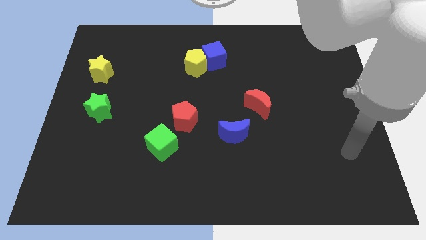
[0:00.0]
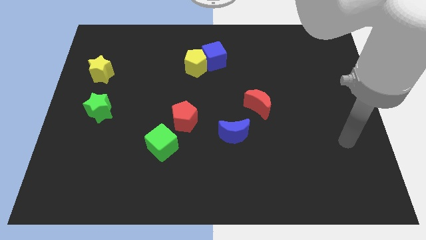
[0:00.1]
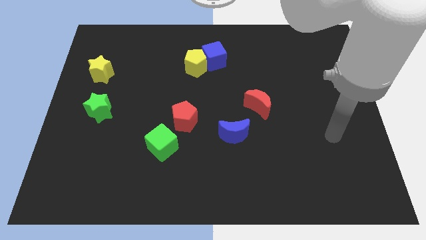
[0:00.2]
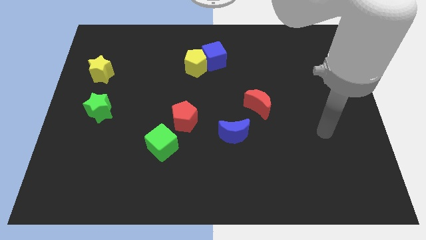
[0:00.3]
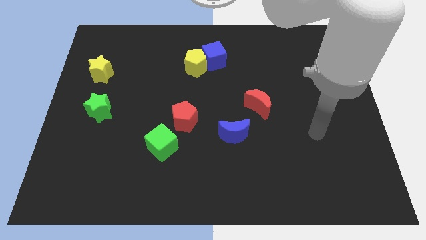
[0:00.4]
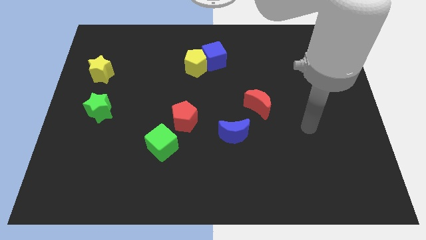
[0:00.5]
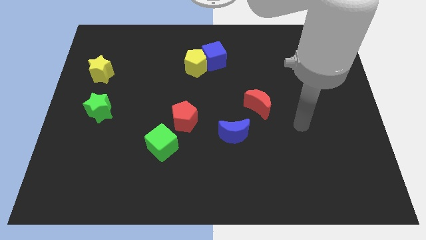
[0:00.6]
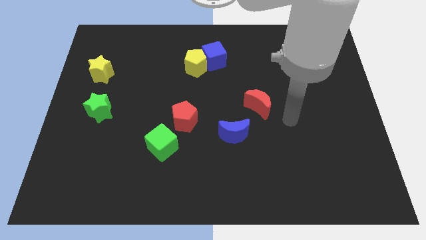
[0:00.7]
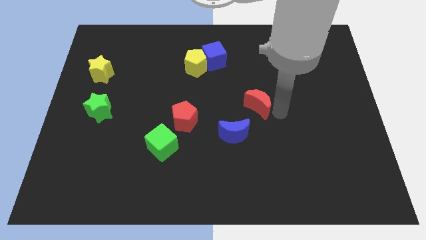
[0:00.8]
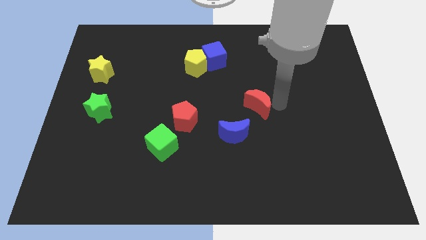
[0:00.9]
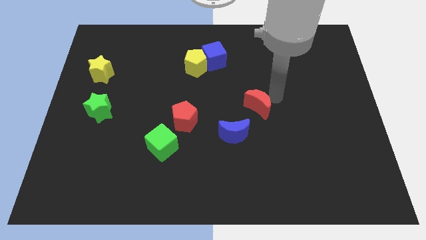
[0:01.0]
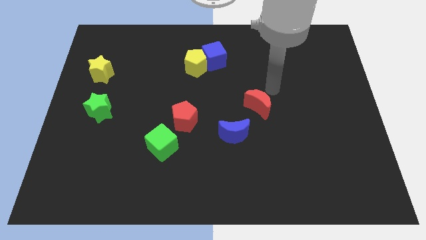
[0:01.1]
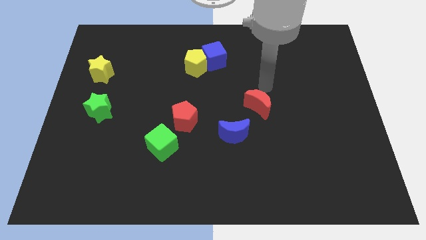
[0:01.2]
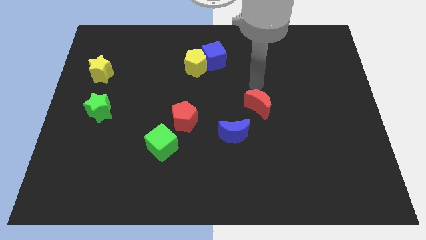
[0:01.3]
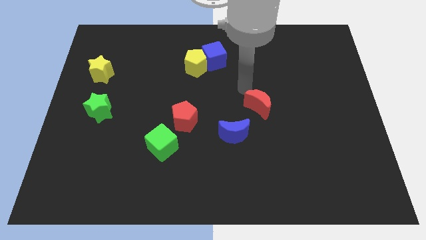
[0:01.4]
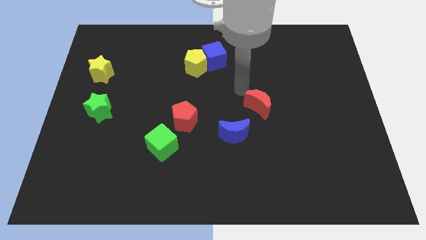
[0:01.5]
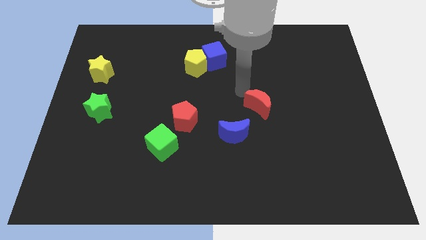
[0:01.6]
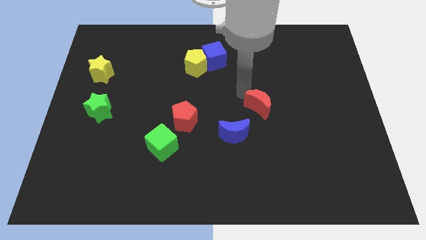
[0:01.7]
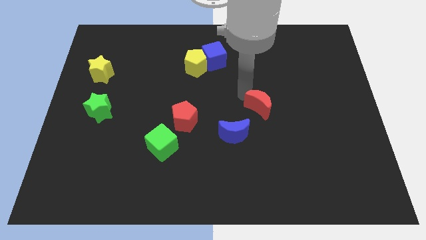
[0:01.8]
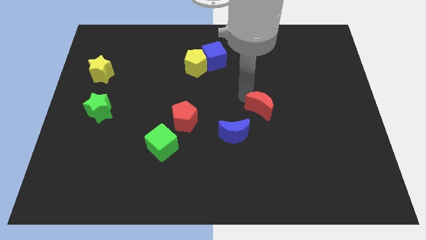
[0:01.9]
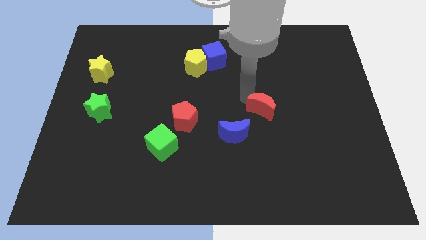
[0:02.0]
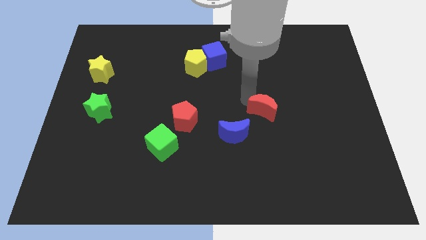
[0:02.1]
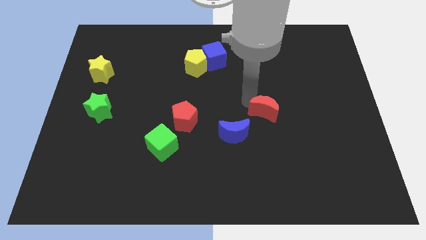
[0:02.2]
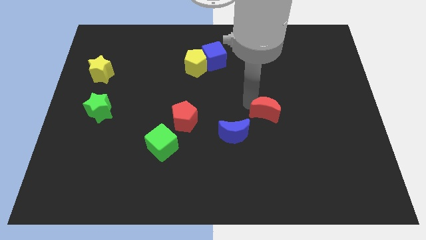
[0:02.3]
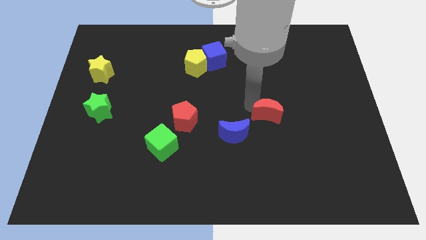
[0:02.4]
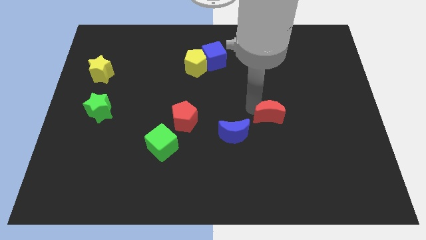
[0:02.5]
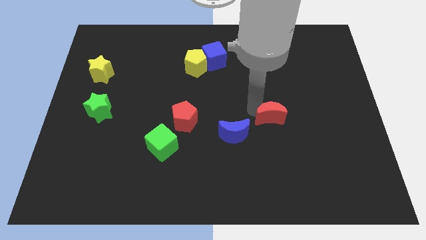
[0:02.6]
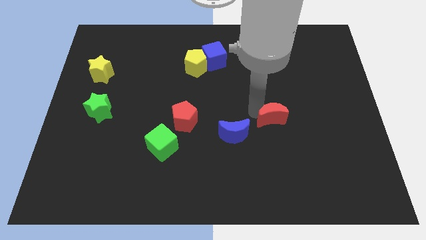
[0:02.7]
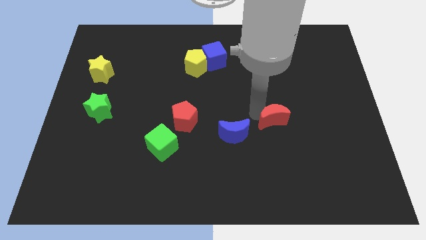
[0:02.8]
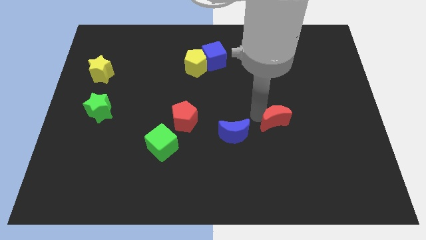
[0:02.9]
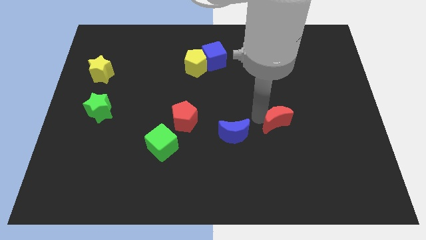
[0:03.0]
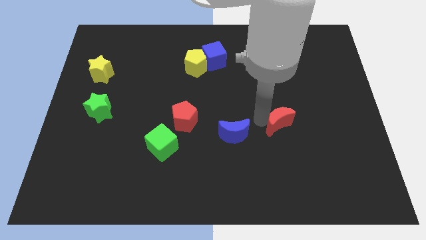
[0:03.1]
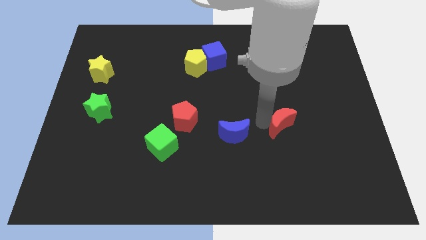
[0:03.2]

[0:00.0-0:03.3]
slide the red moon somewhat down and right diagonally

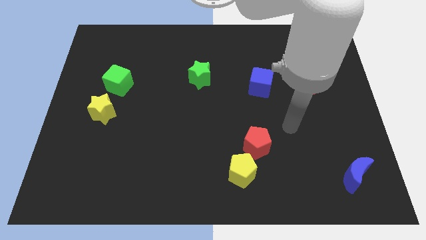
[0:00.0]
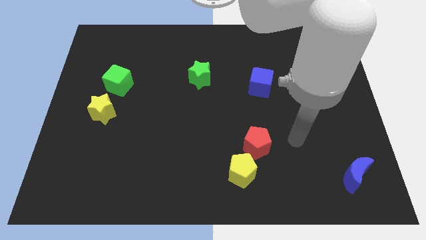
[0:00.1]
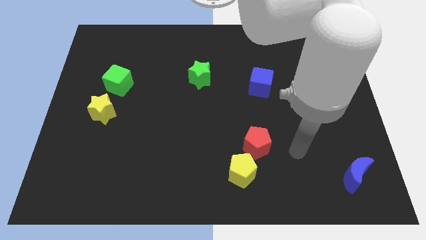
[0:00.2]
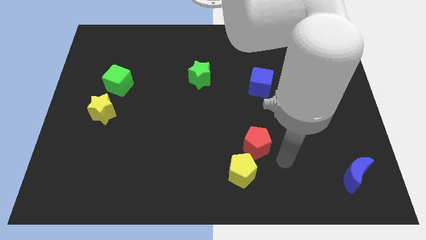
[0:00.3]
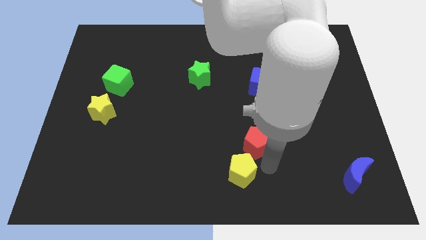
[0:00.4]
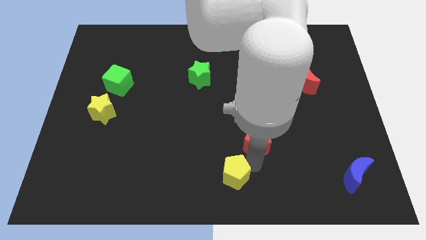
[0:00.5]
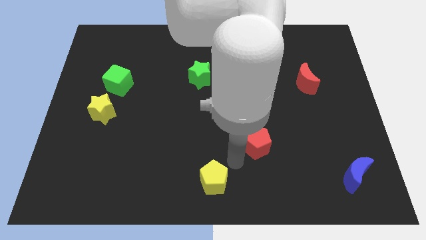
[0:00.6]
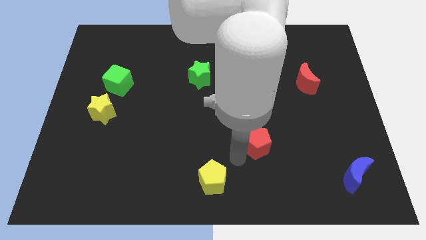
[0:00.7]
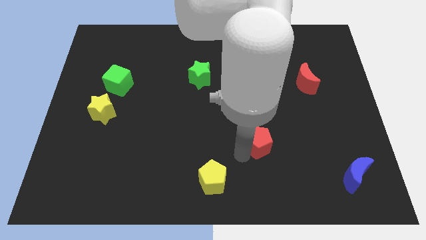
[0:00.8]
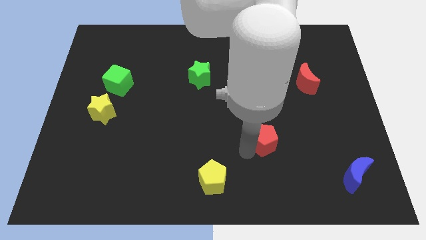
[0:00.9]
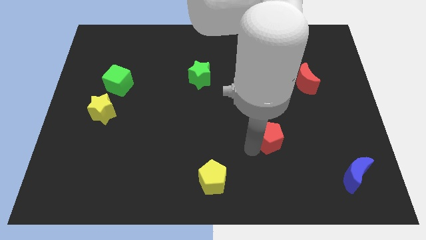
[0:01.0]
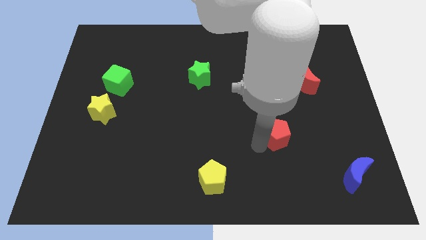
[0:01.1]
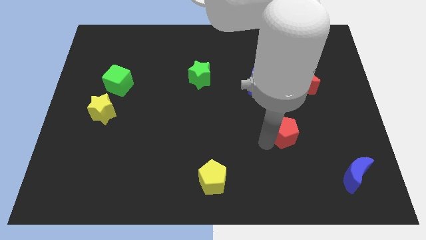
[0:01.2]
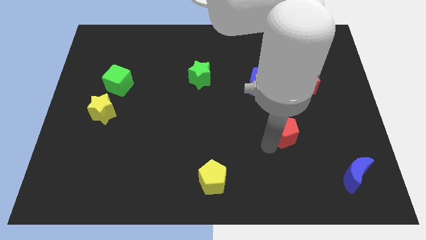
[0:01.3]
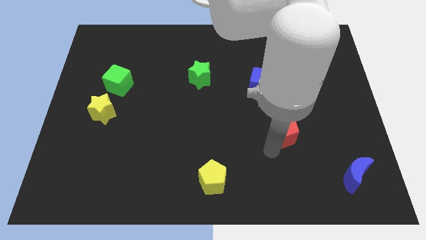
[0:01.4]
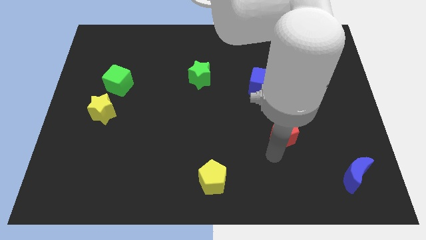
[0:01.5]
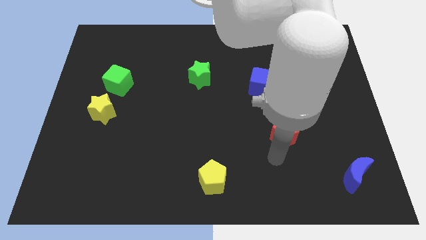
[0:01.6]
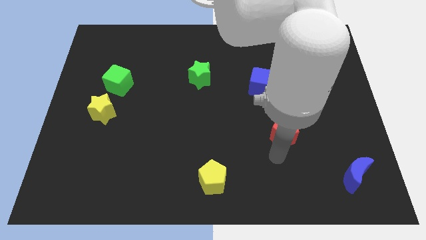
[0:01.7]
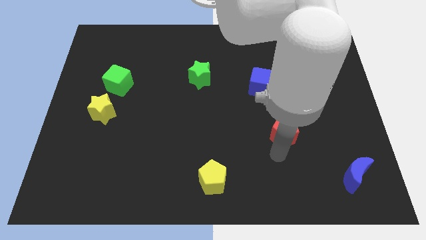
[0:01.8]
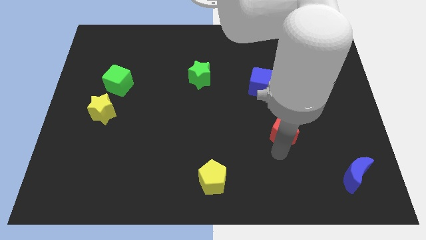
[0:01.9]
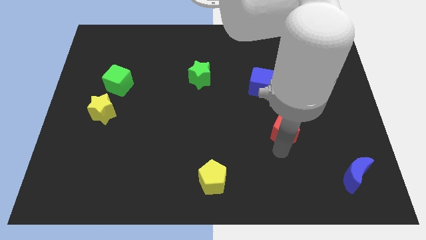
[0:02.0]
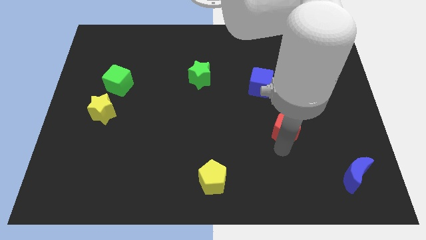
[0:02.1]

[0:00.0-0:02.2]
move the red pentagon up and to the right diagonally a little bit

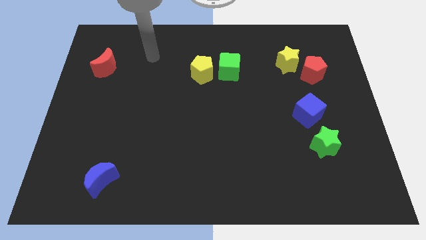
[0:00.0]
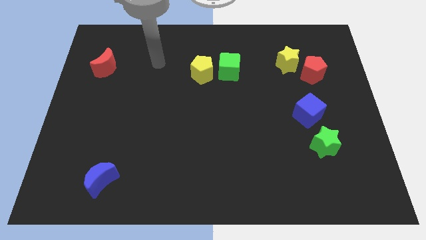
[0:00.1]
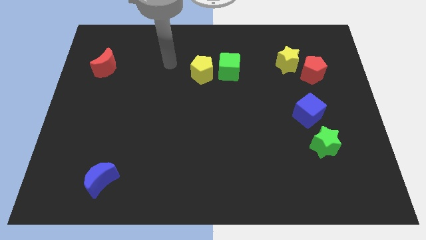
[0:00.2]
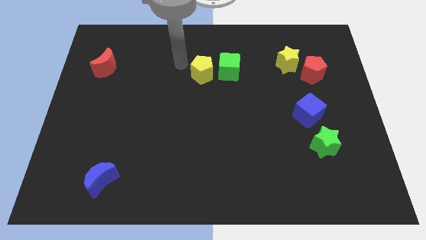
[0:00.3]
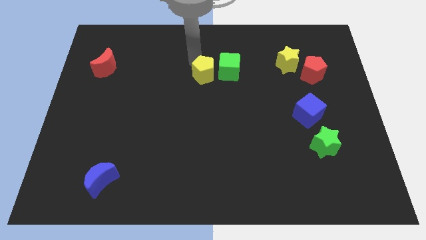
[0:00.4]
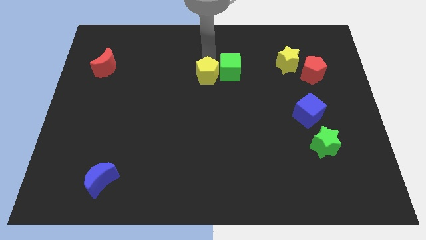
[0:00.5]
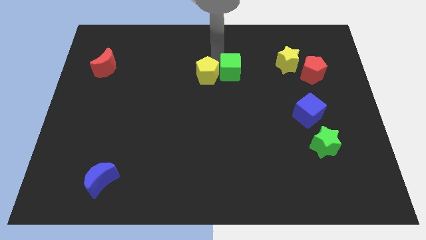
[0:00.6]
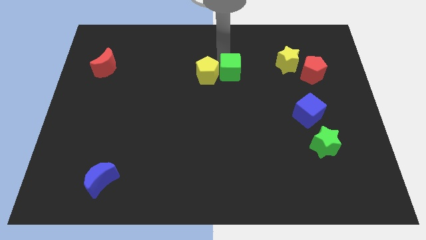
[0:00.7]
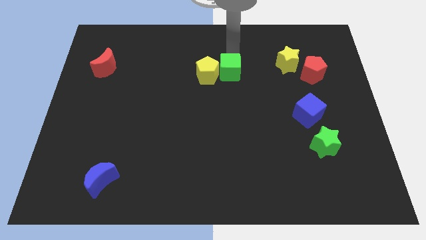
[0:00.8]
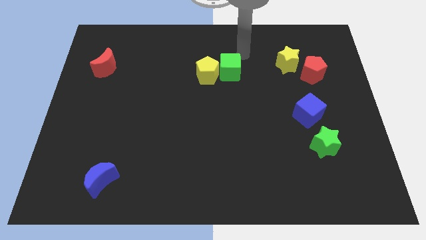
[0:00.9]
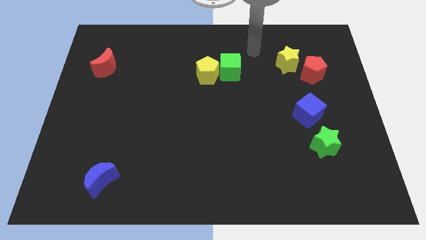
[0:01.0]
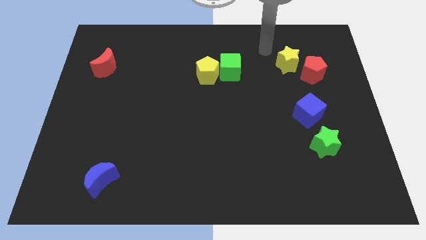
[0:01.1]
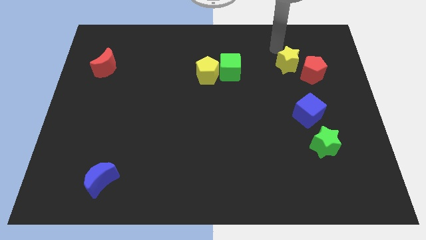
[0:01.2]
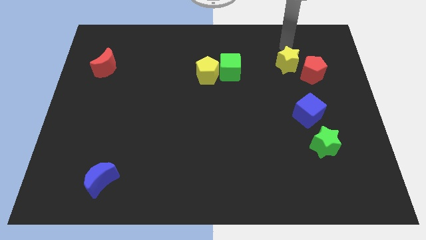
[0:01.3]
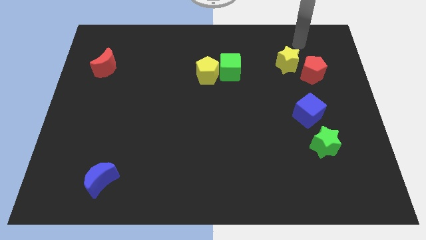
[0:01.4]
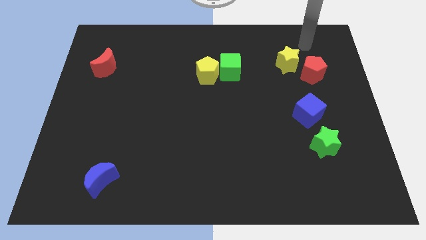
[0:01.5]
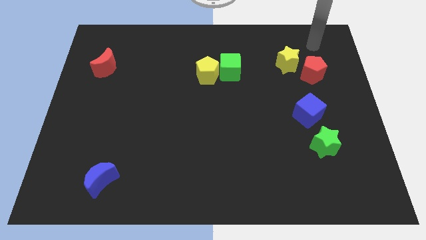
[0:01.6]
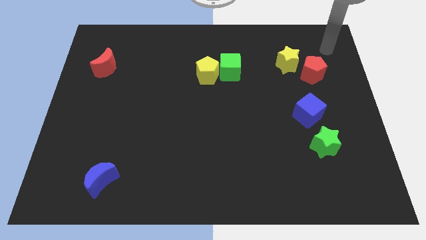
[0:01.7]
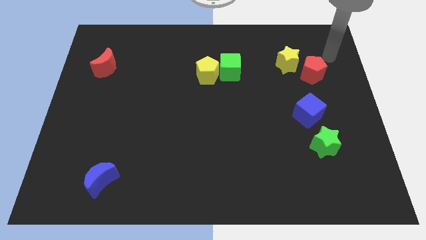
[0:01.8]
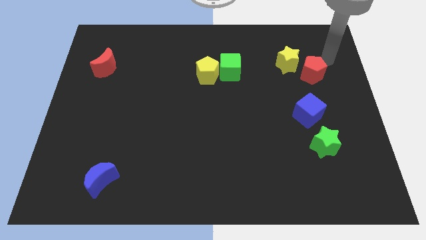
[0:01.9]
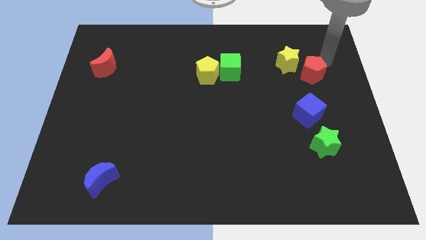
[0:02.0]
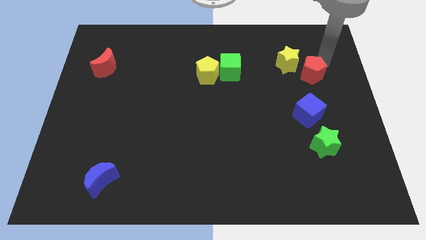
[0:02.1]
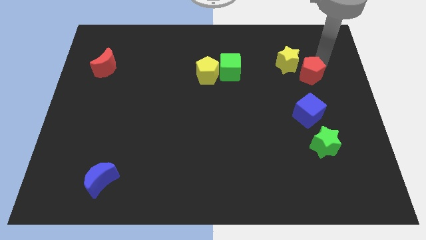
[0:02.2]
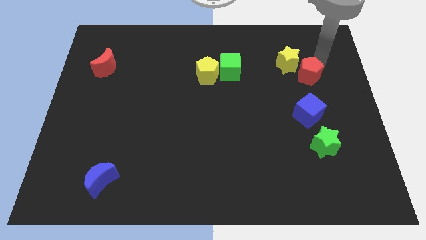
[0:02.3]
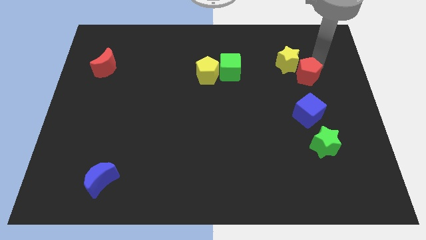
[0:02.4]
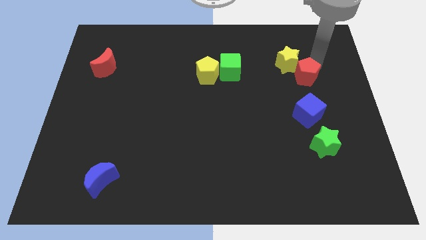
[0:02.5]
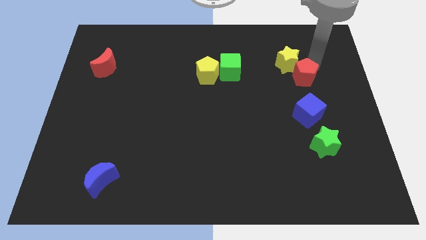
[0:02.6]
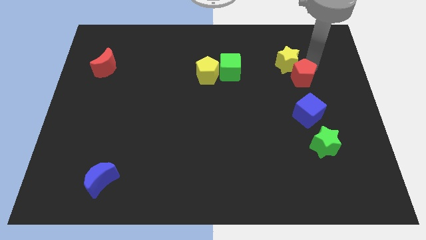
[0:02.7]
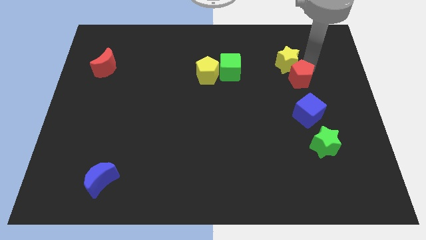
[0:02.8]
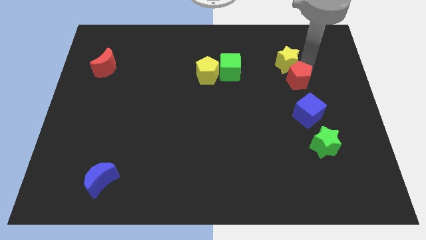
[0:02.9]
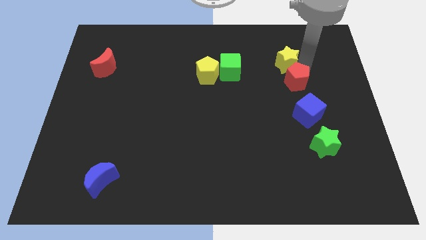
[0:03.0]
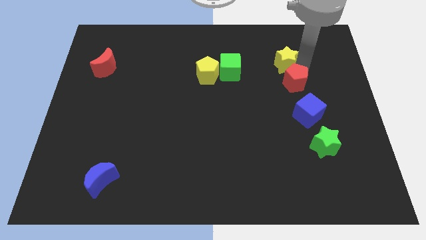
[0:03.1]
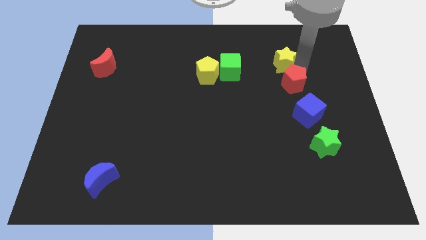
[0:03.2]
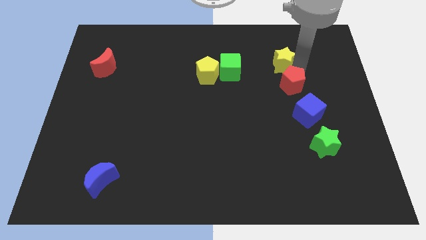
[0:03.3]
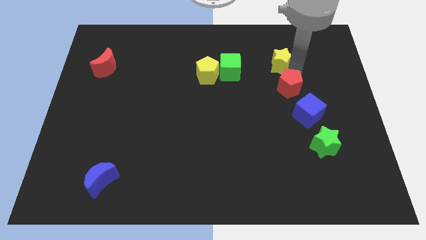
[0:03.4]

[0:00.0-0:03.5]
slightly move the red pentagon down and to the left
